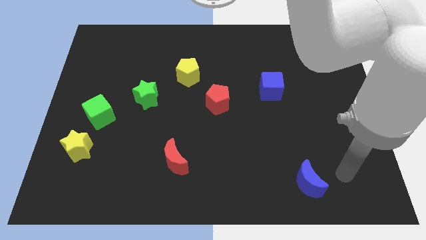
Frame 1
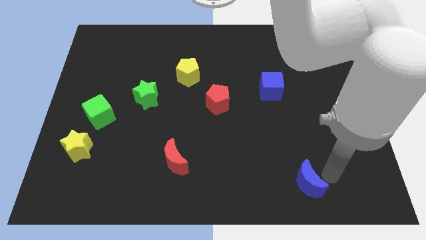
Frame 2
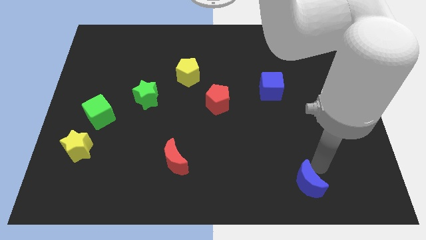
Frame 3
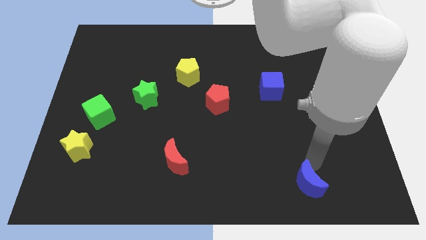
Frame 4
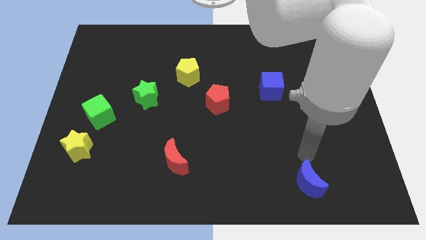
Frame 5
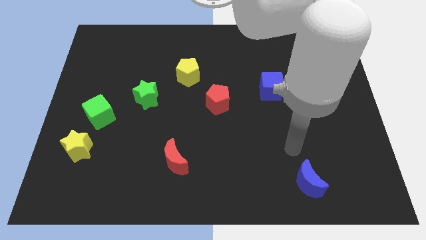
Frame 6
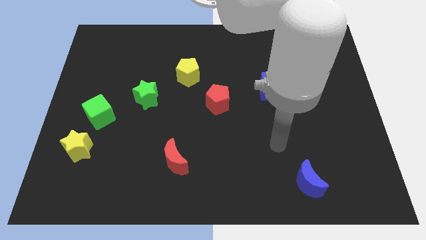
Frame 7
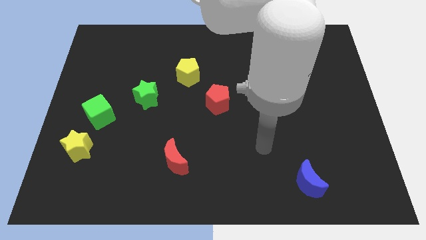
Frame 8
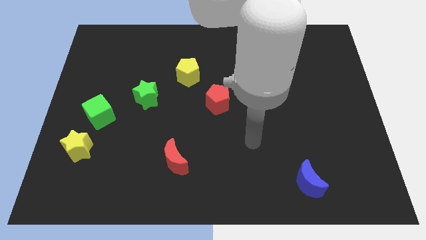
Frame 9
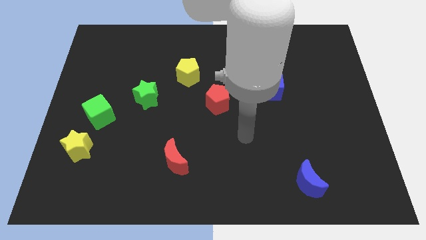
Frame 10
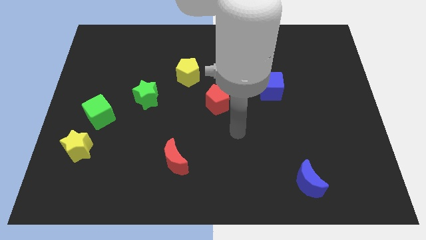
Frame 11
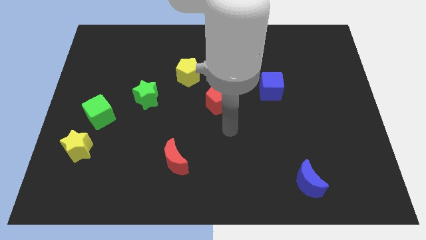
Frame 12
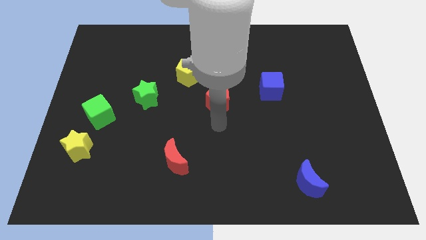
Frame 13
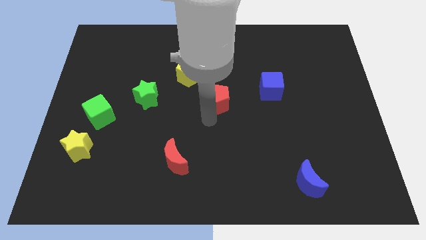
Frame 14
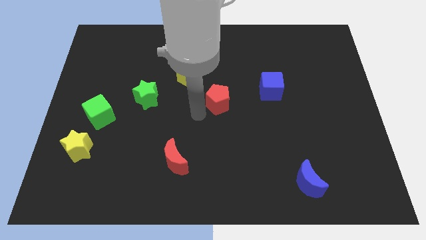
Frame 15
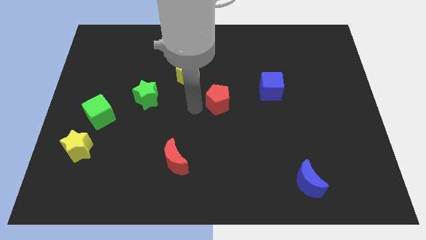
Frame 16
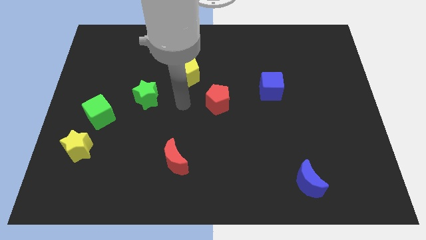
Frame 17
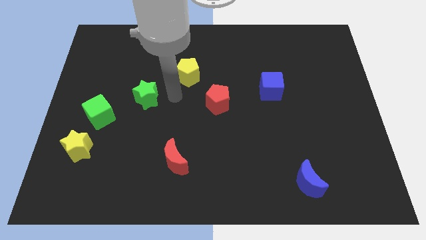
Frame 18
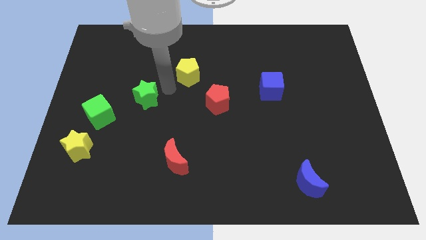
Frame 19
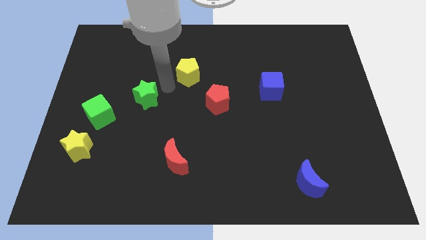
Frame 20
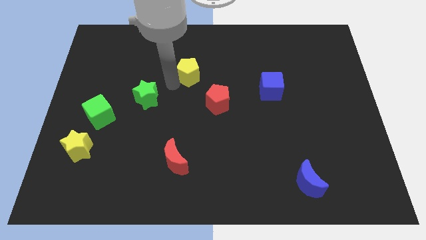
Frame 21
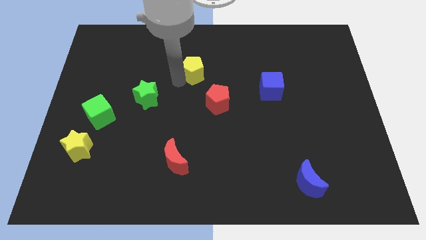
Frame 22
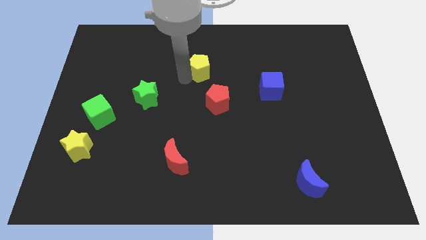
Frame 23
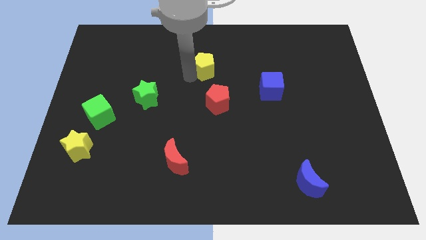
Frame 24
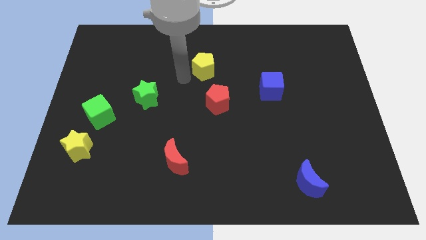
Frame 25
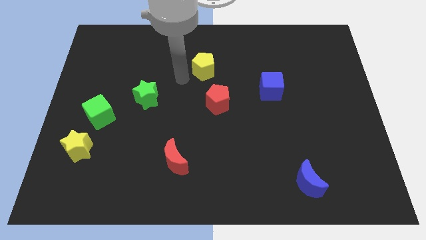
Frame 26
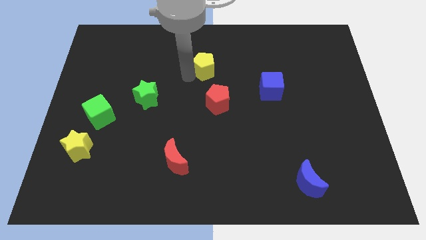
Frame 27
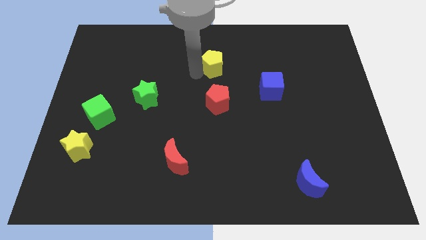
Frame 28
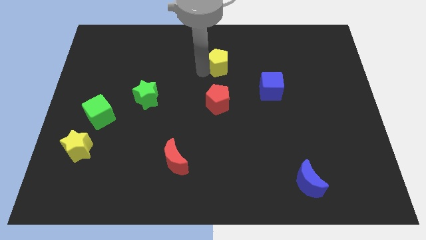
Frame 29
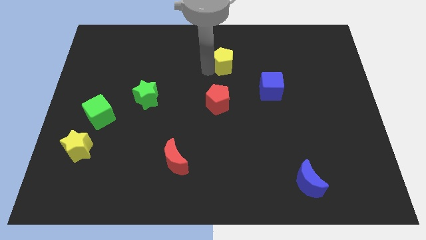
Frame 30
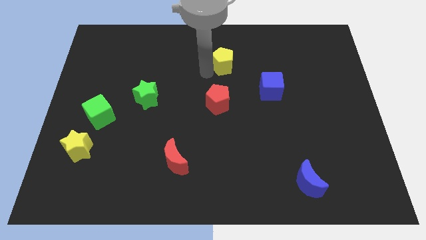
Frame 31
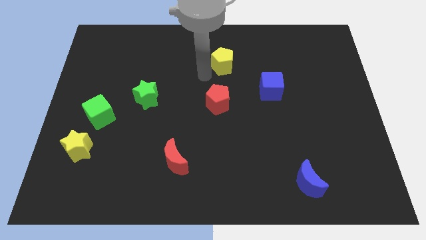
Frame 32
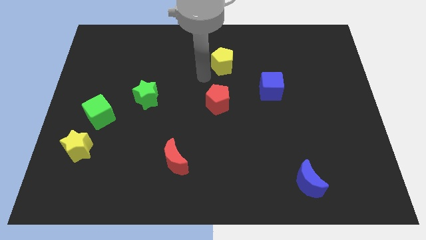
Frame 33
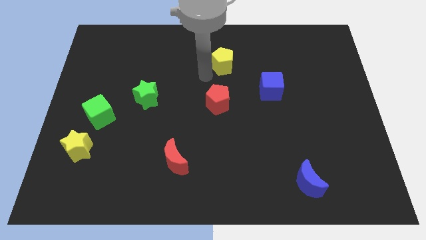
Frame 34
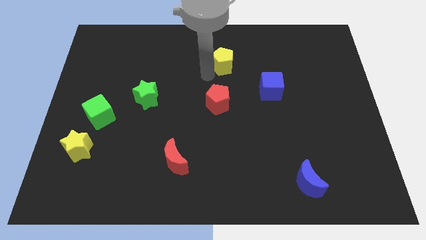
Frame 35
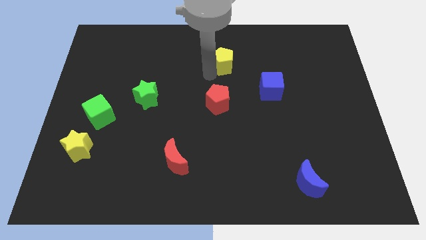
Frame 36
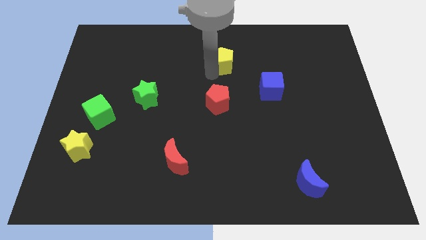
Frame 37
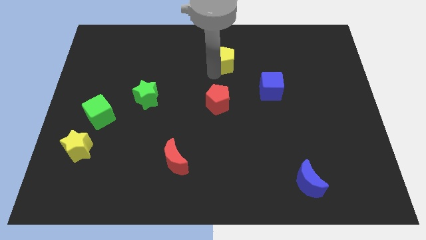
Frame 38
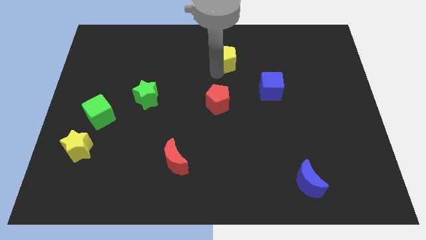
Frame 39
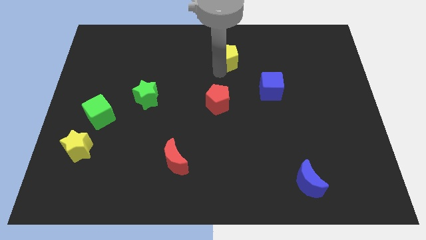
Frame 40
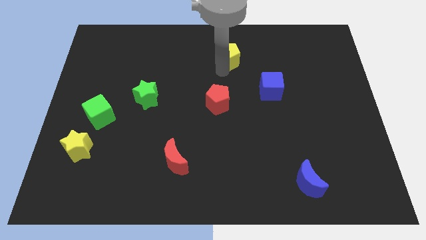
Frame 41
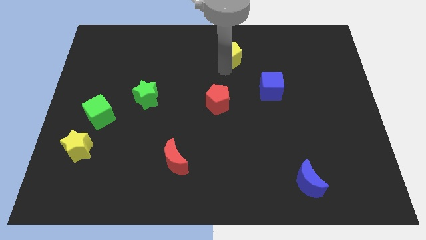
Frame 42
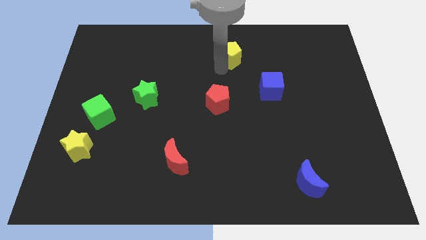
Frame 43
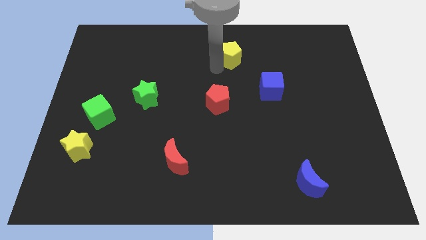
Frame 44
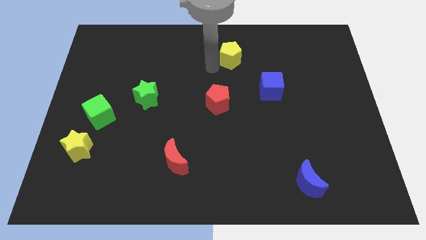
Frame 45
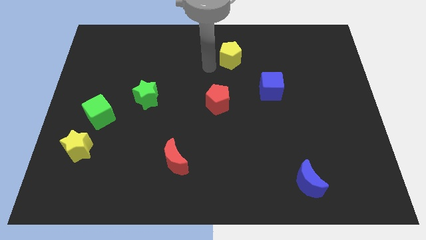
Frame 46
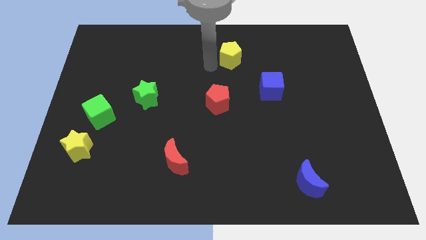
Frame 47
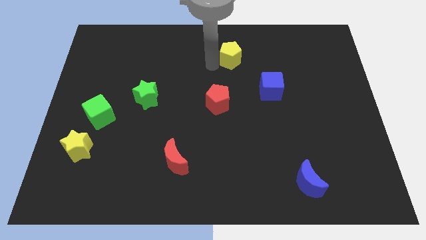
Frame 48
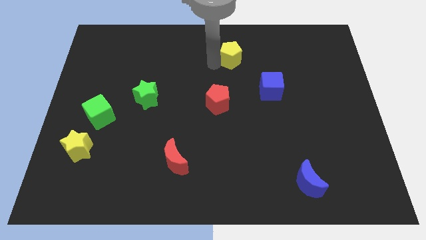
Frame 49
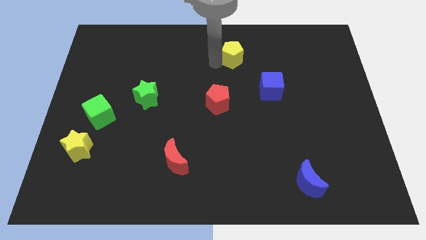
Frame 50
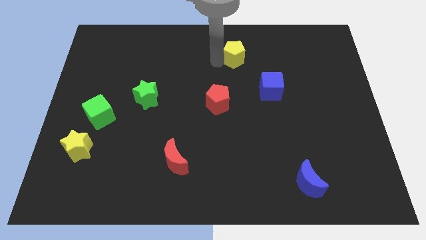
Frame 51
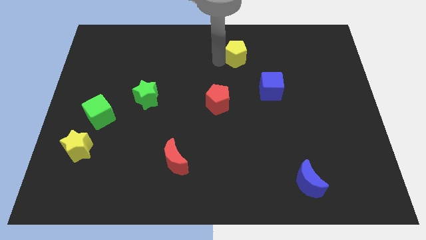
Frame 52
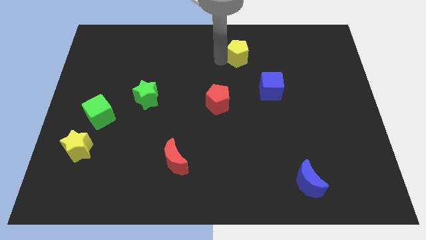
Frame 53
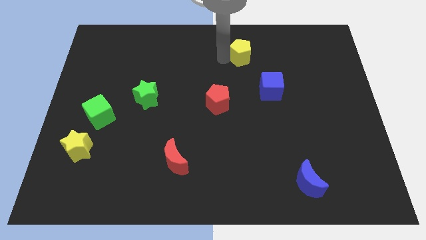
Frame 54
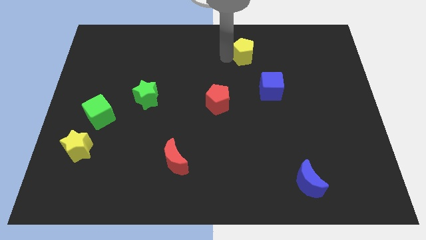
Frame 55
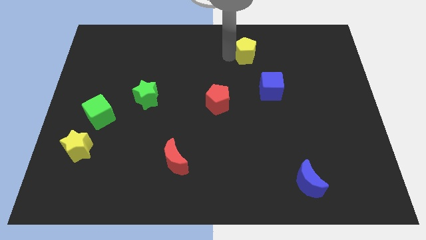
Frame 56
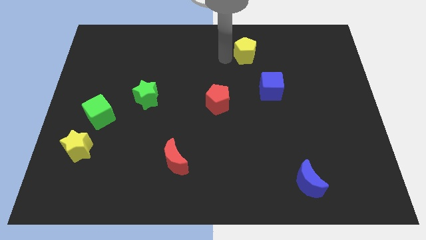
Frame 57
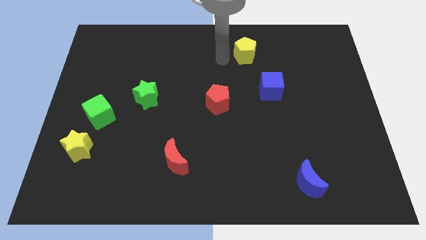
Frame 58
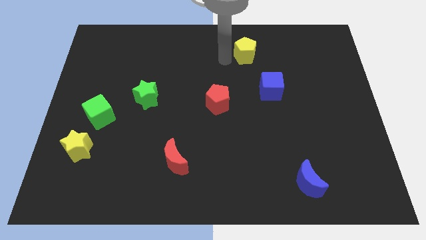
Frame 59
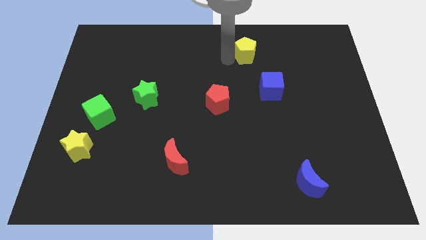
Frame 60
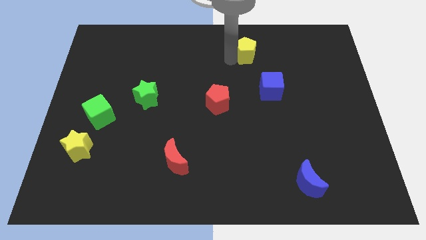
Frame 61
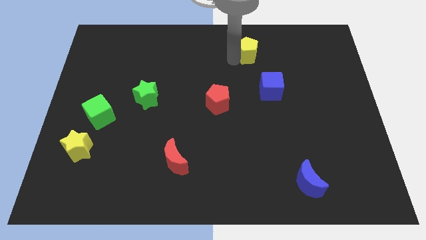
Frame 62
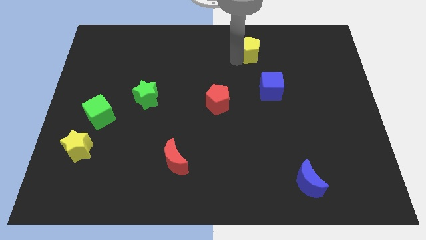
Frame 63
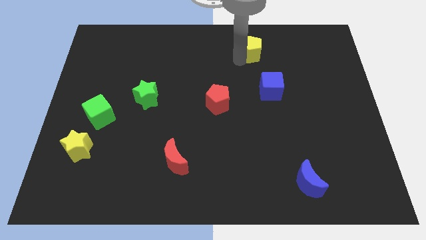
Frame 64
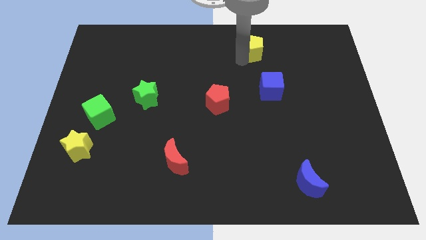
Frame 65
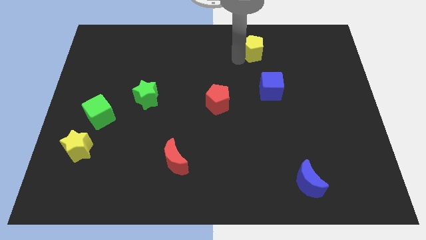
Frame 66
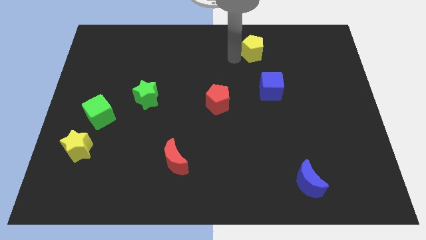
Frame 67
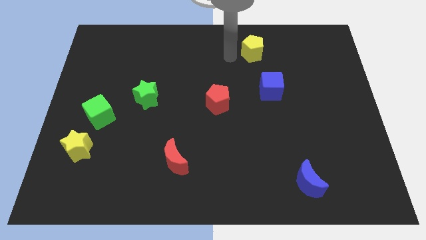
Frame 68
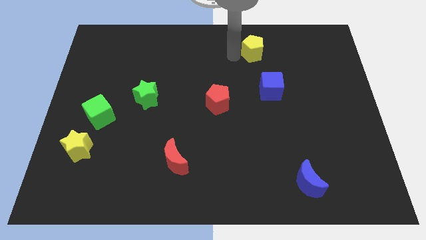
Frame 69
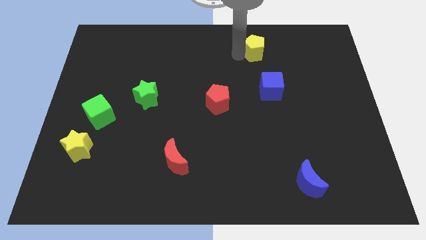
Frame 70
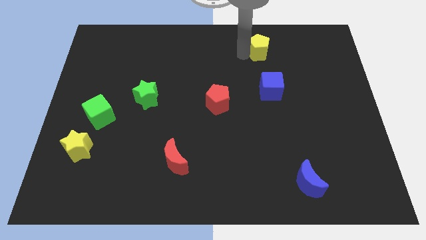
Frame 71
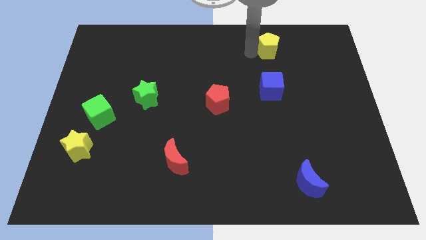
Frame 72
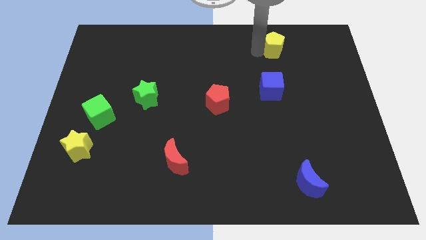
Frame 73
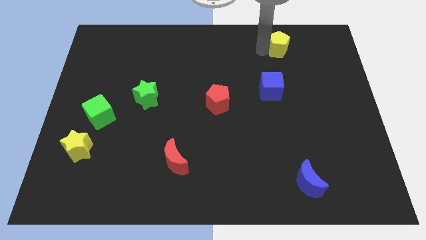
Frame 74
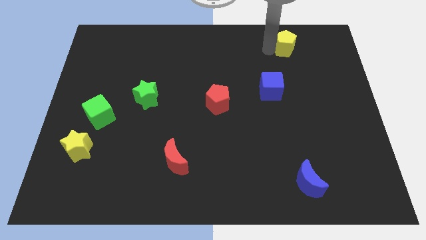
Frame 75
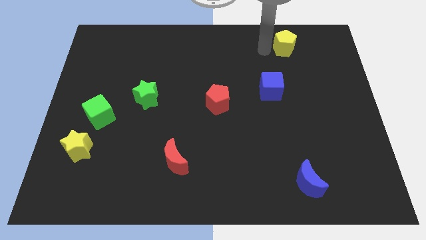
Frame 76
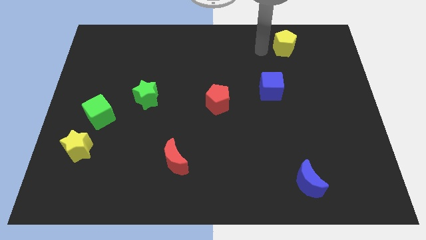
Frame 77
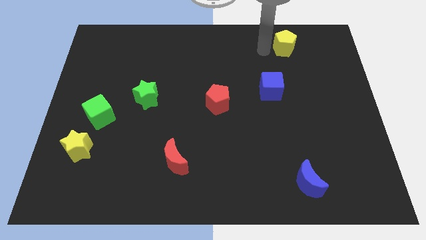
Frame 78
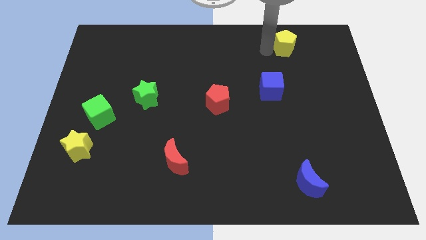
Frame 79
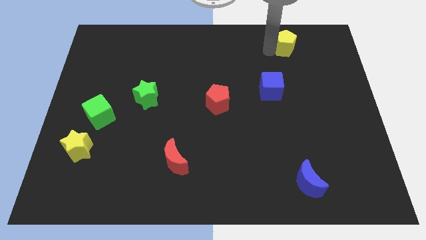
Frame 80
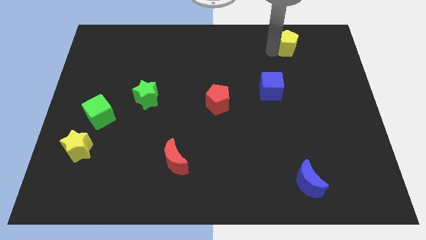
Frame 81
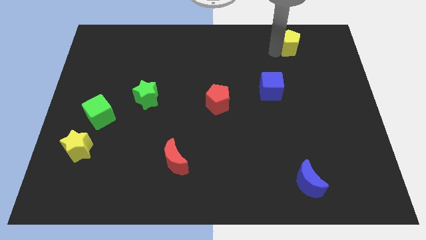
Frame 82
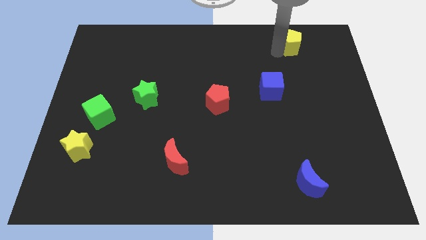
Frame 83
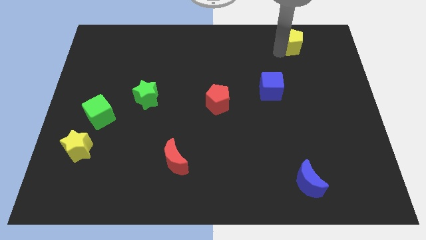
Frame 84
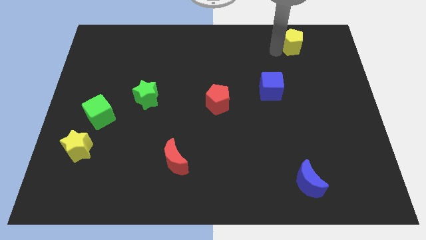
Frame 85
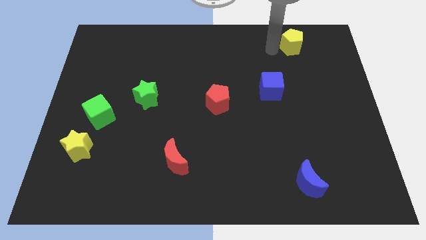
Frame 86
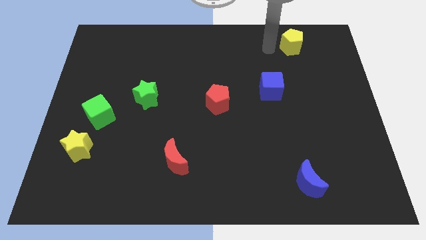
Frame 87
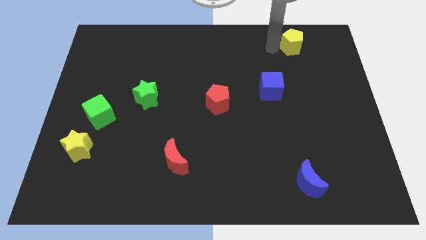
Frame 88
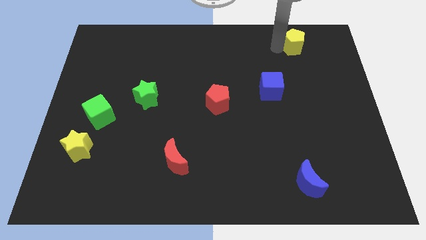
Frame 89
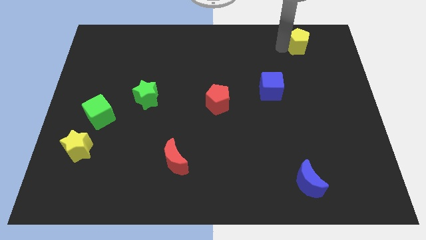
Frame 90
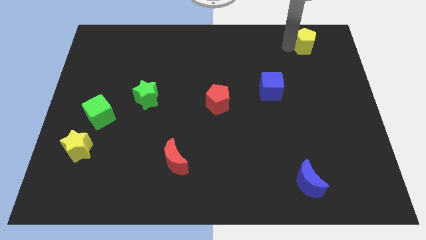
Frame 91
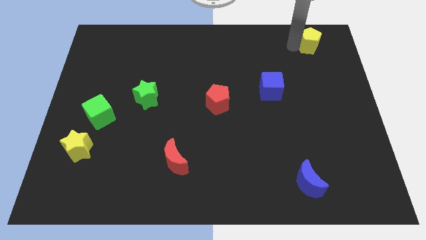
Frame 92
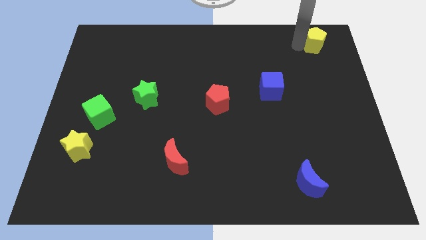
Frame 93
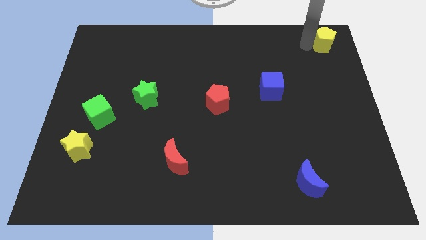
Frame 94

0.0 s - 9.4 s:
move the yellow pentagon to the top right
